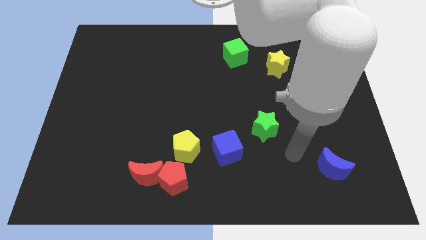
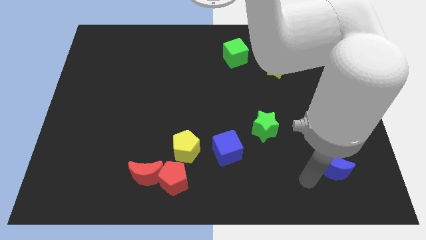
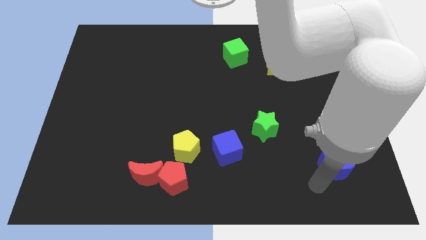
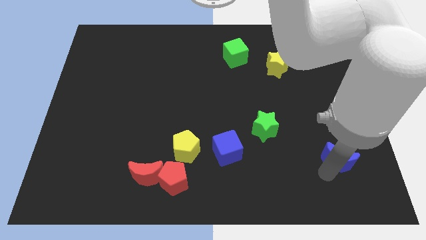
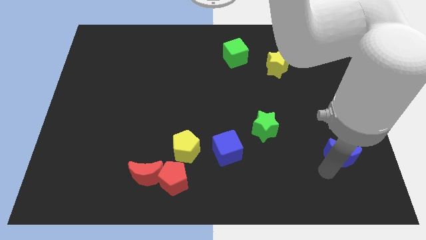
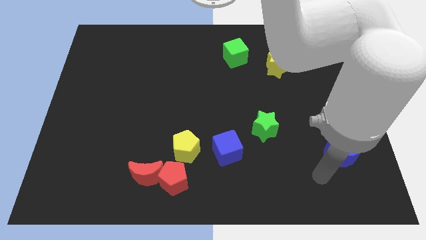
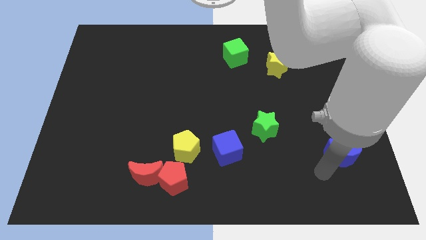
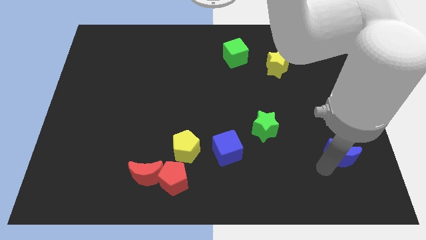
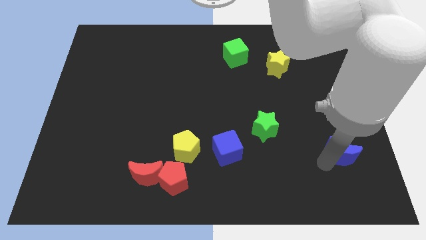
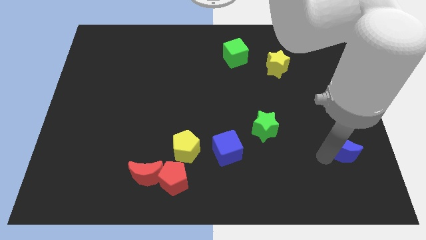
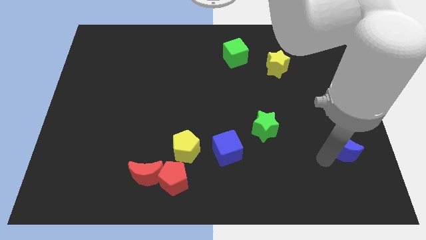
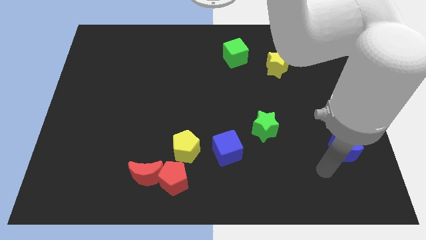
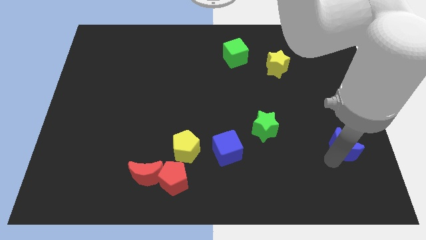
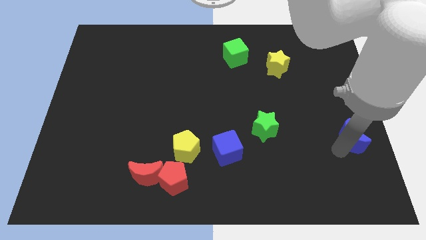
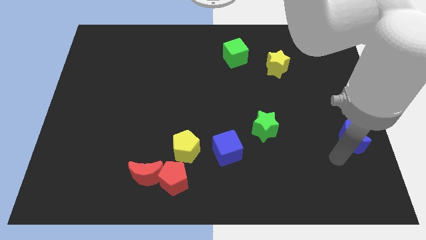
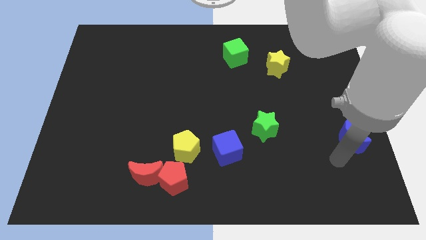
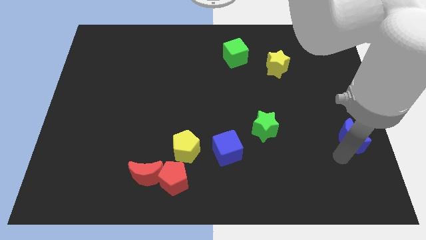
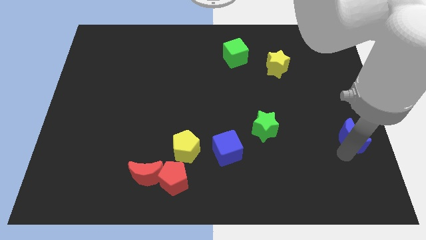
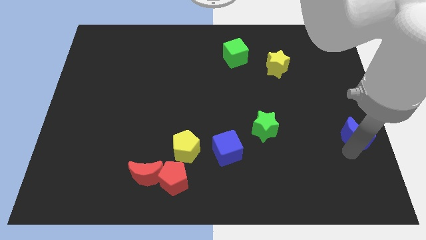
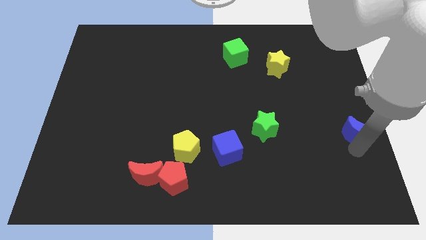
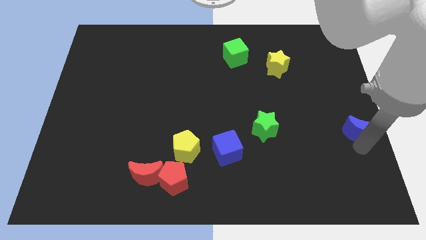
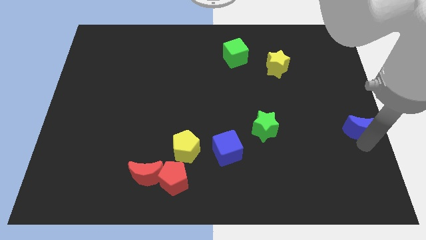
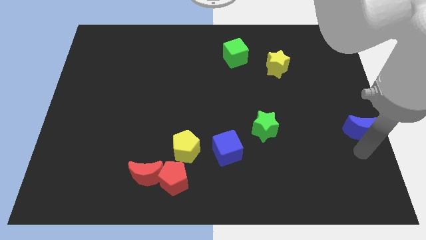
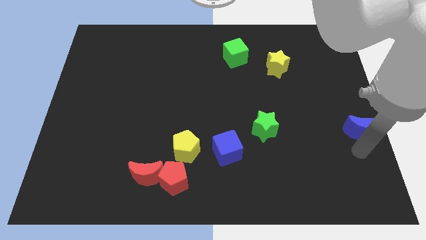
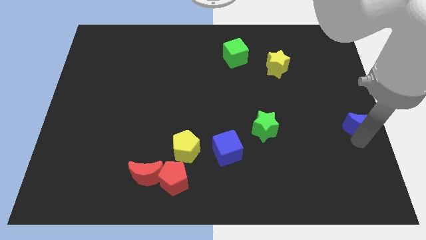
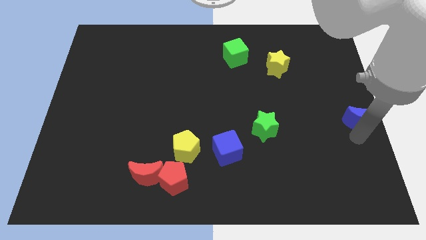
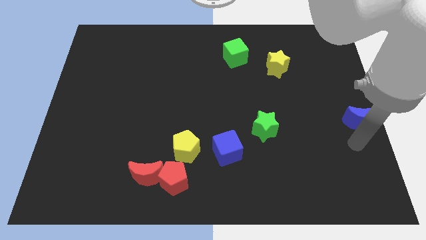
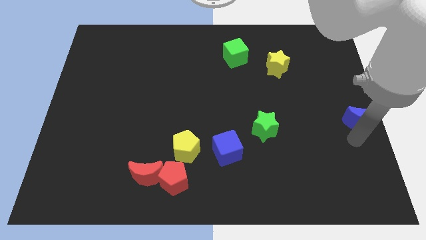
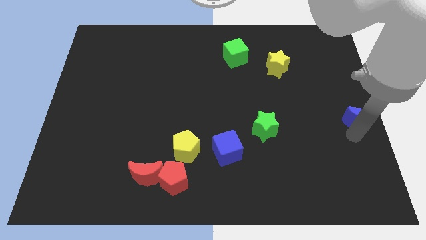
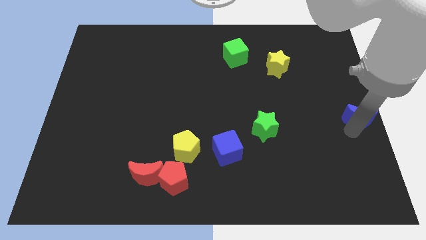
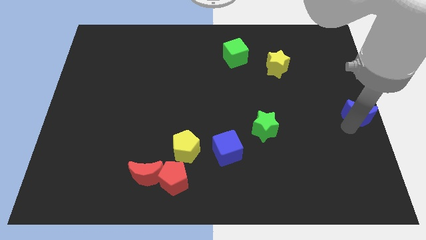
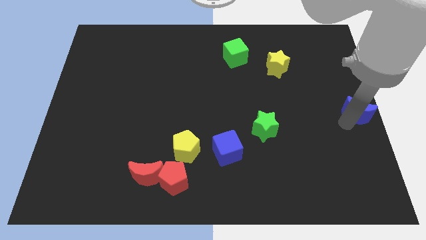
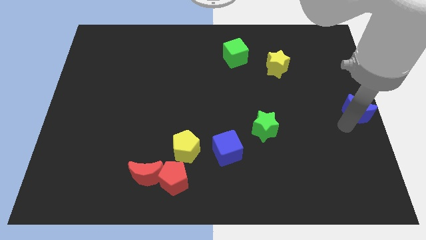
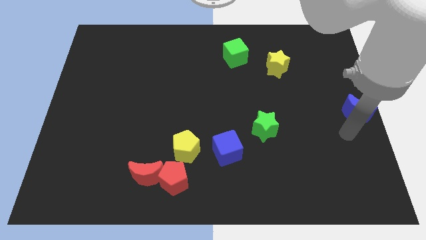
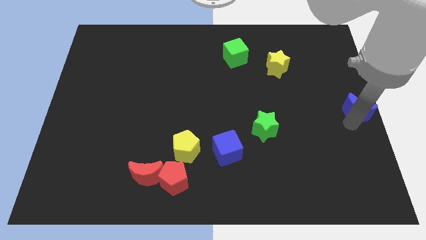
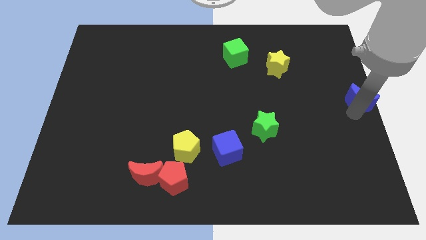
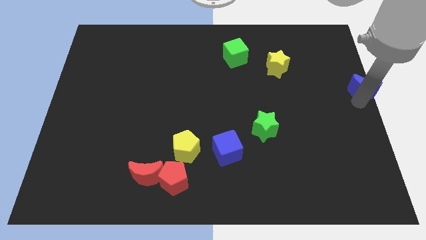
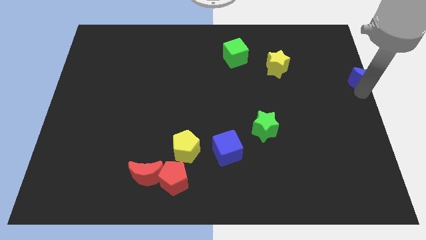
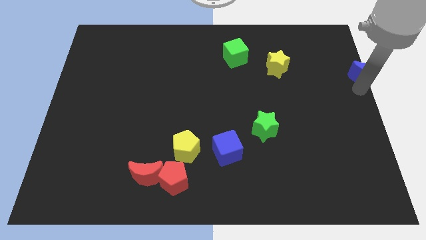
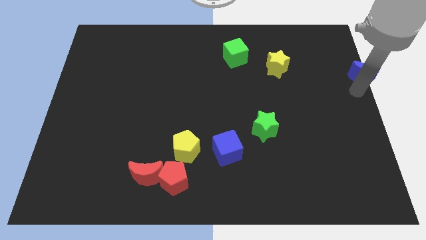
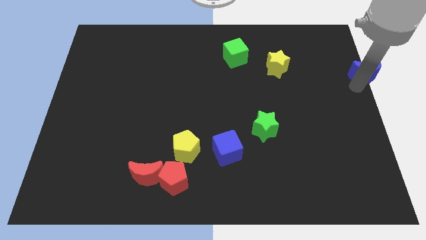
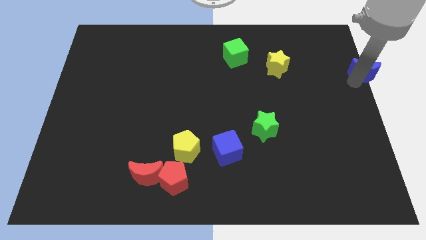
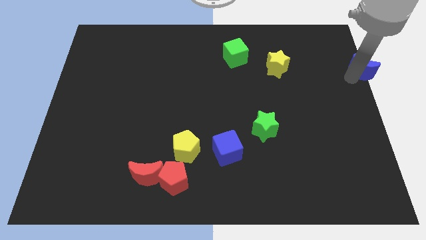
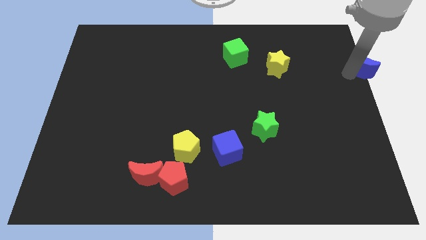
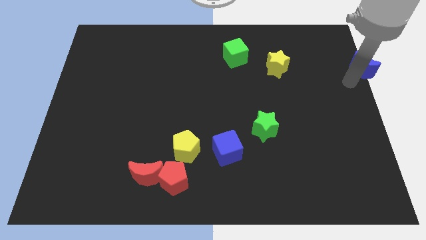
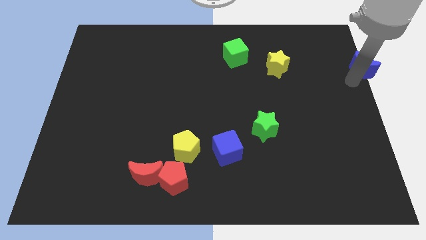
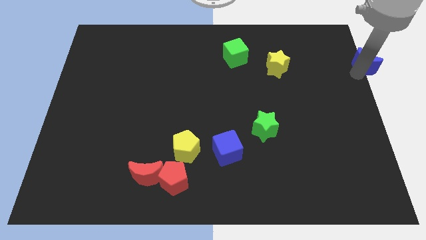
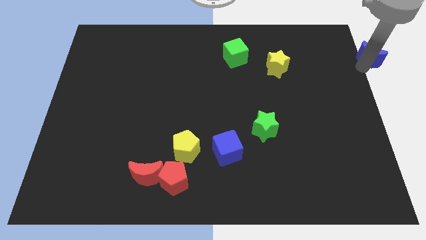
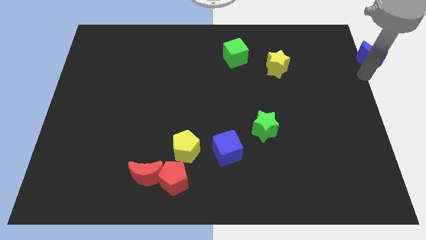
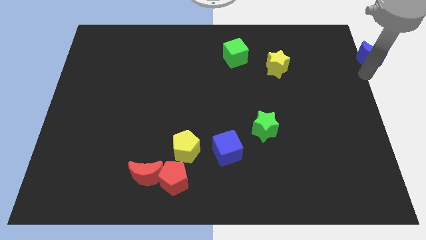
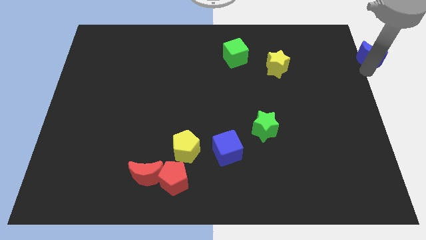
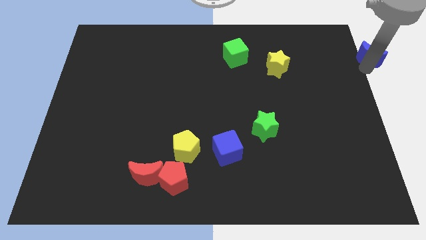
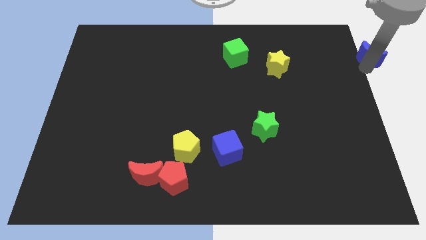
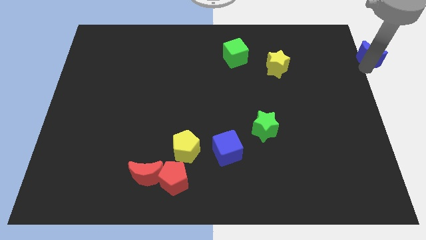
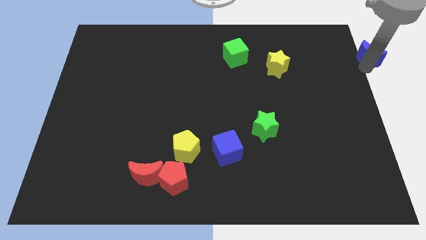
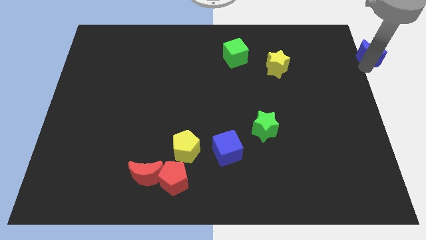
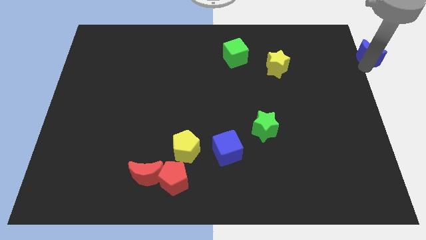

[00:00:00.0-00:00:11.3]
move the blue moon to the top right

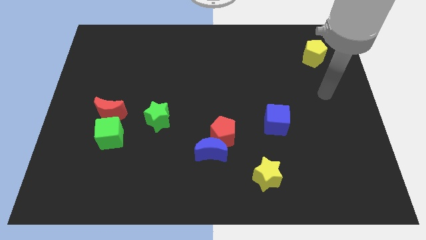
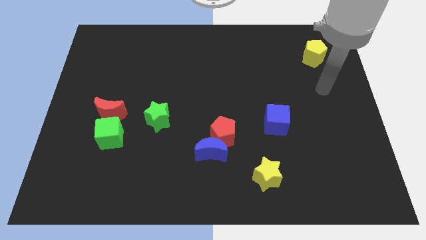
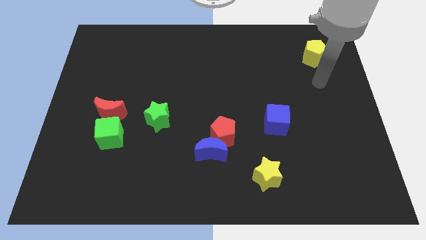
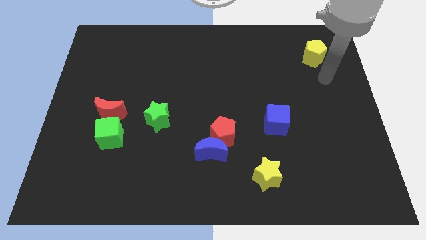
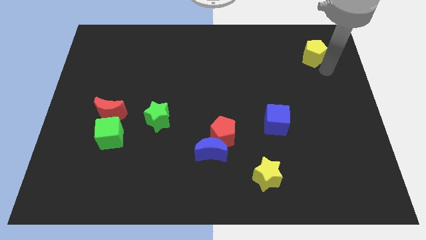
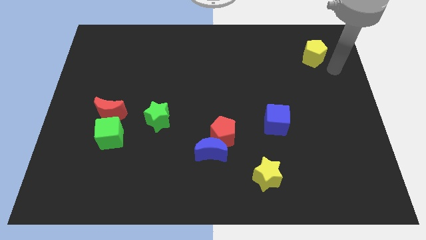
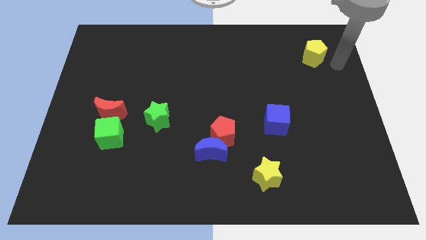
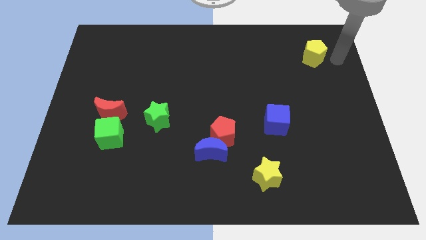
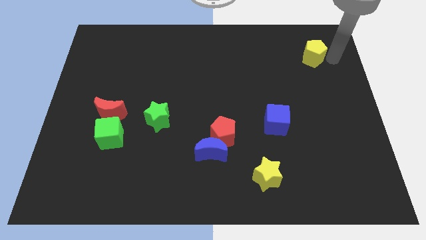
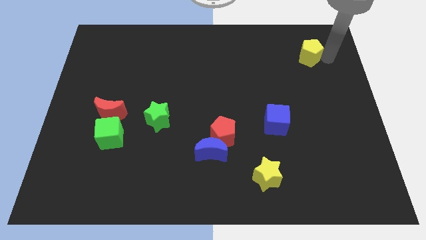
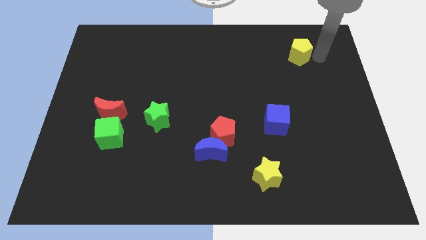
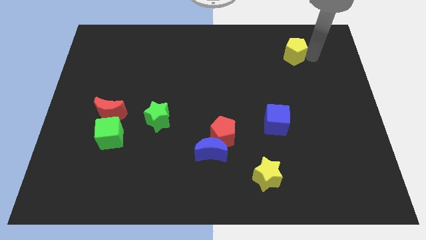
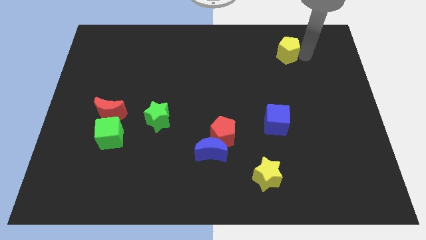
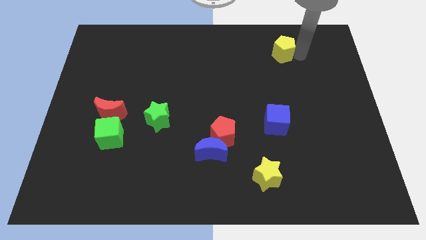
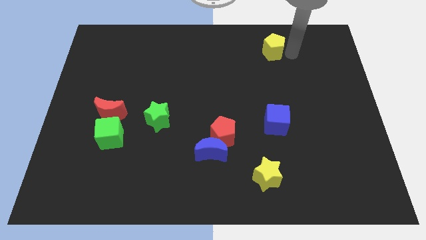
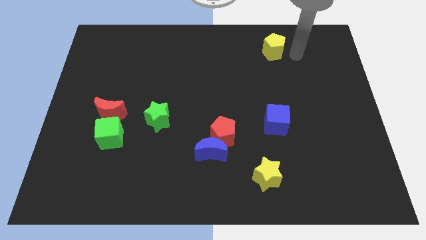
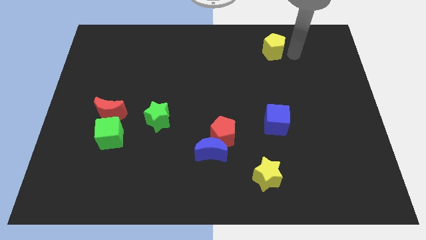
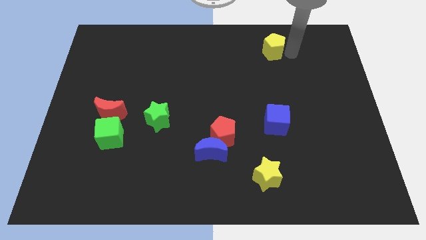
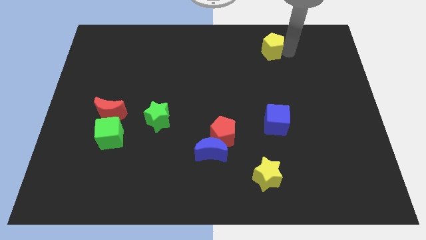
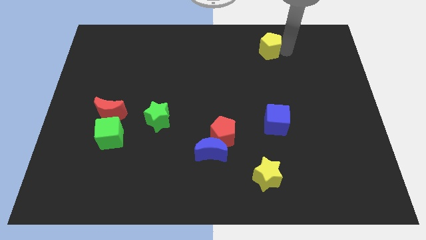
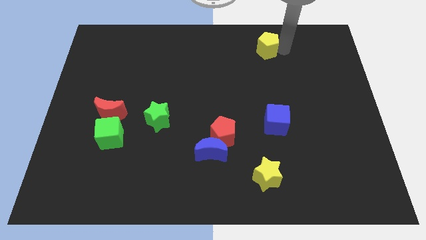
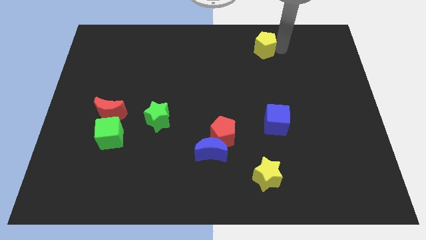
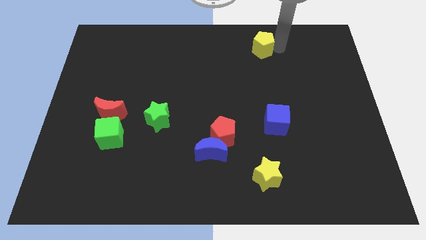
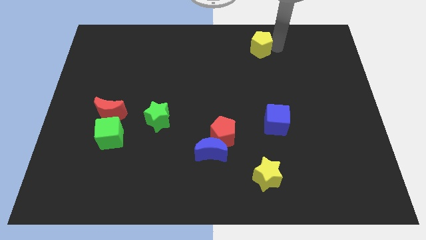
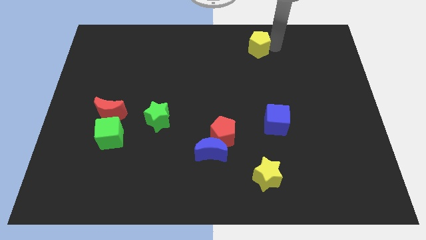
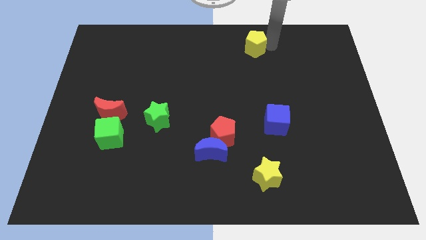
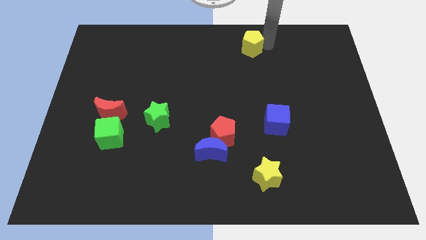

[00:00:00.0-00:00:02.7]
push the yellow pentagon to the towards your base
